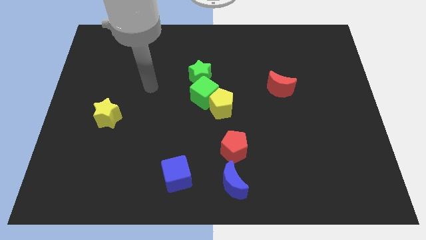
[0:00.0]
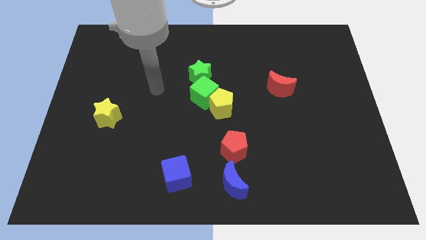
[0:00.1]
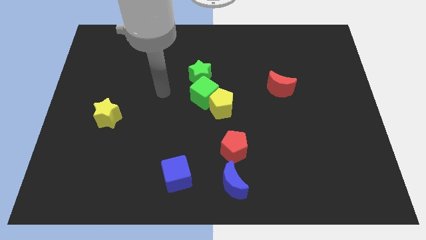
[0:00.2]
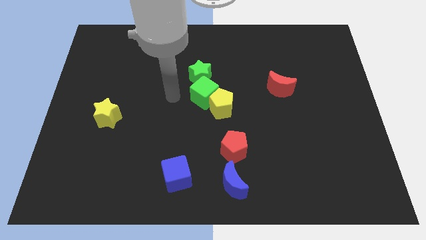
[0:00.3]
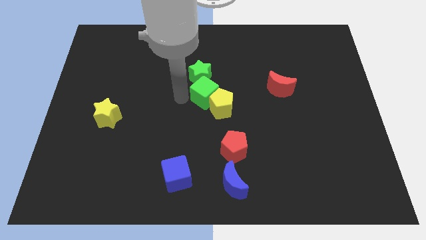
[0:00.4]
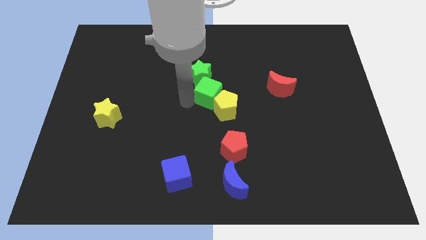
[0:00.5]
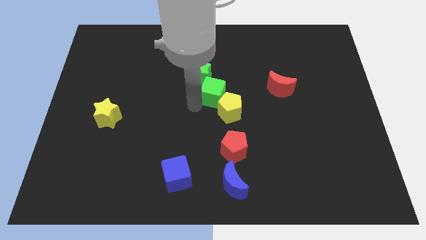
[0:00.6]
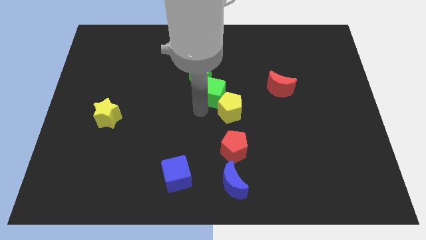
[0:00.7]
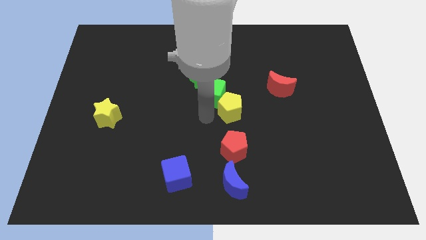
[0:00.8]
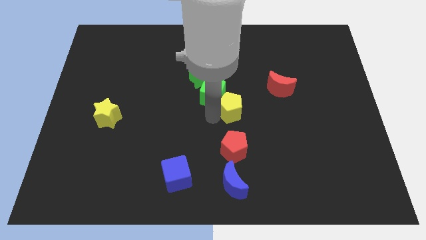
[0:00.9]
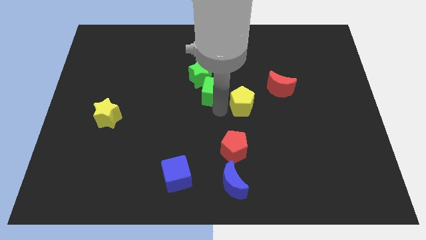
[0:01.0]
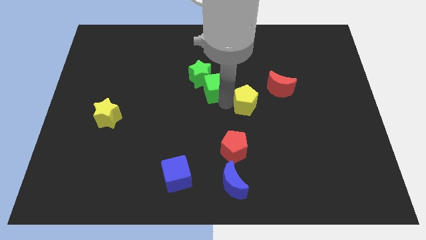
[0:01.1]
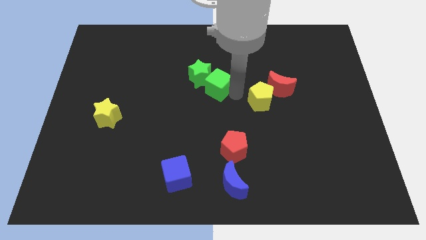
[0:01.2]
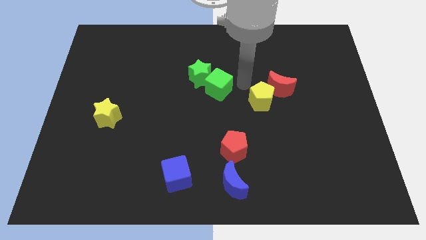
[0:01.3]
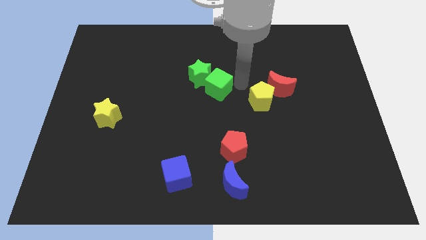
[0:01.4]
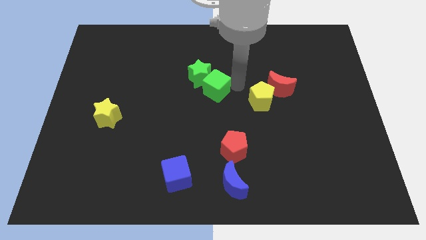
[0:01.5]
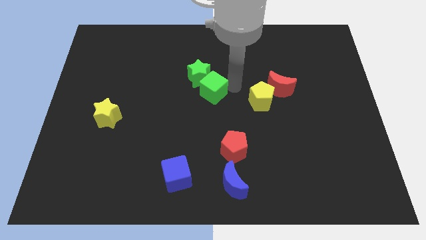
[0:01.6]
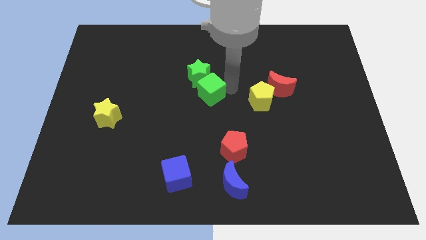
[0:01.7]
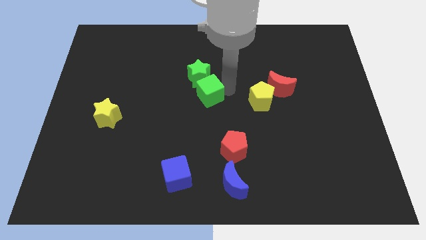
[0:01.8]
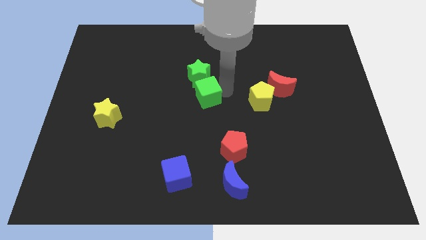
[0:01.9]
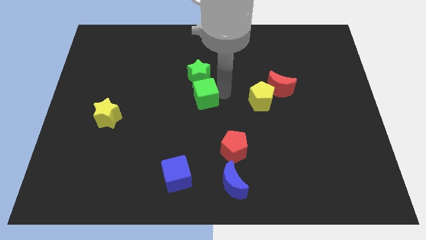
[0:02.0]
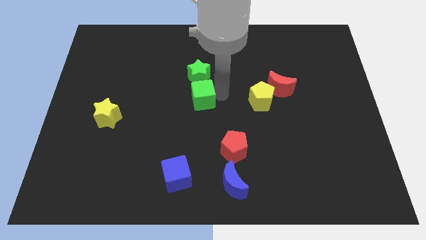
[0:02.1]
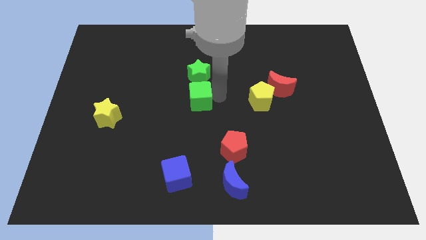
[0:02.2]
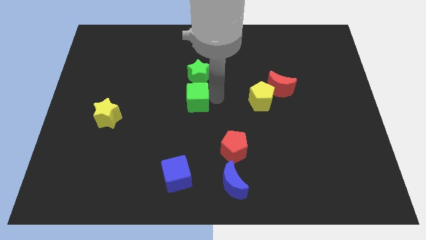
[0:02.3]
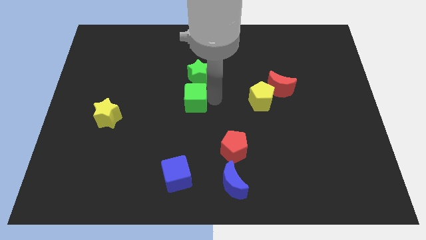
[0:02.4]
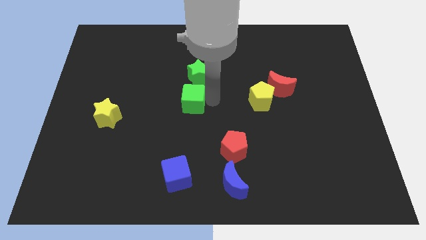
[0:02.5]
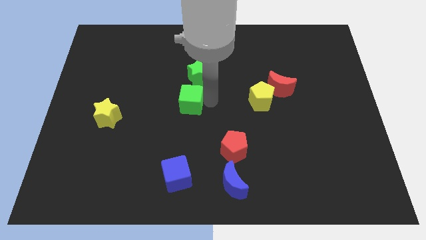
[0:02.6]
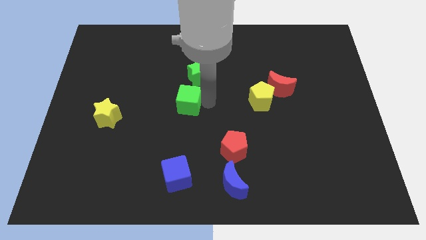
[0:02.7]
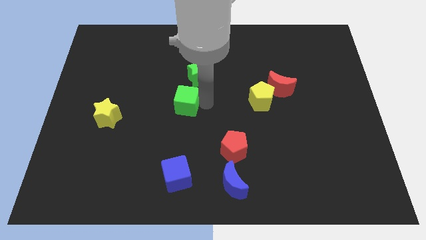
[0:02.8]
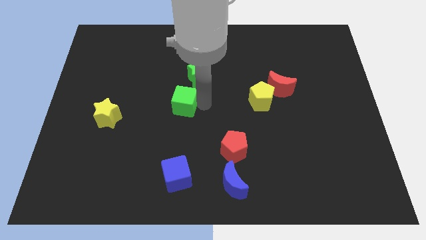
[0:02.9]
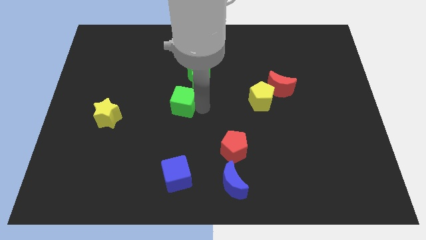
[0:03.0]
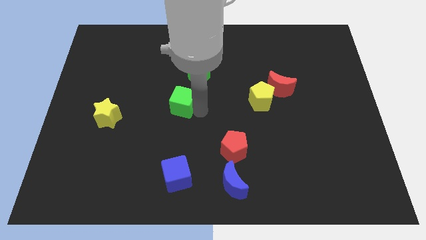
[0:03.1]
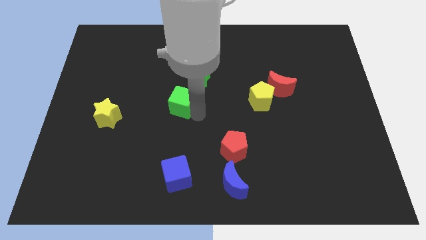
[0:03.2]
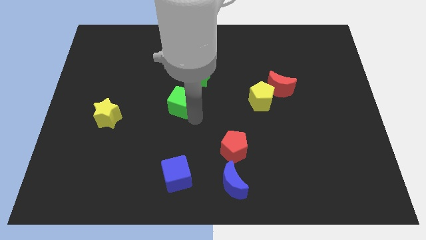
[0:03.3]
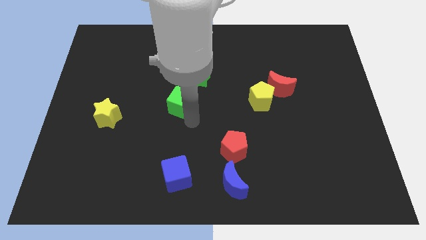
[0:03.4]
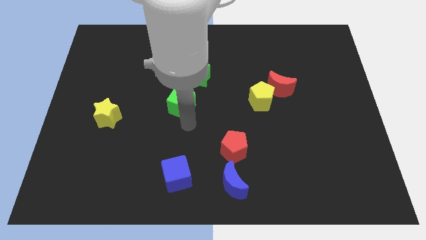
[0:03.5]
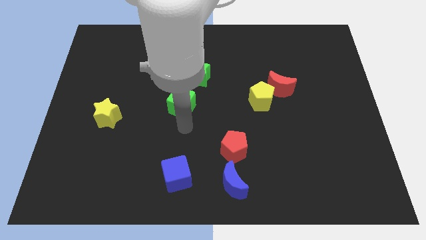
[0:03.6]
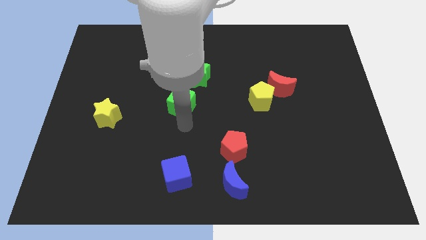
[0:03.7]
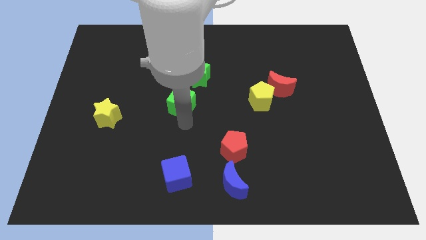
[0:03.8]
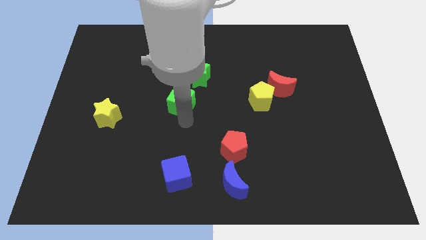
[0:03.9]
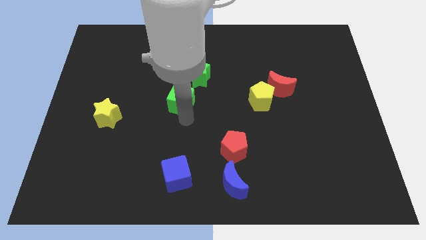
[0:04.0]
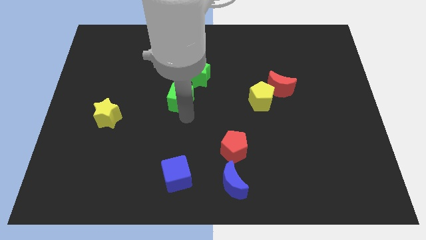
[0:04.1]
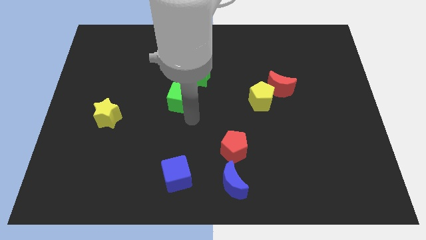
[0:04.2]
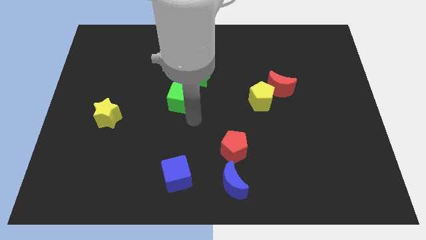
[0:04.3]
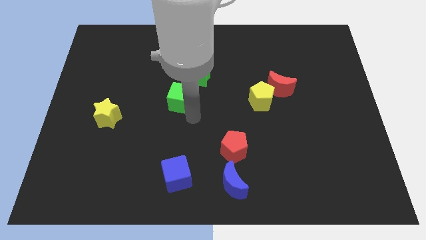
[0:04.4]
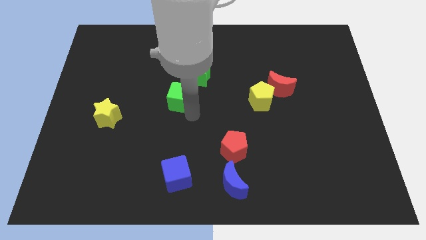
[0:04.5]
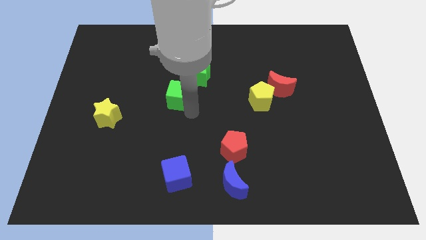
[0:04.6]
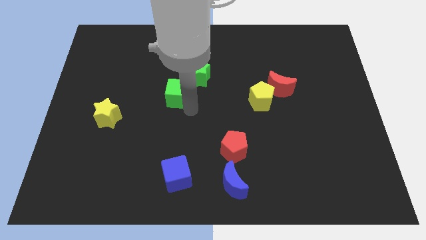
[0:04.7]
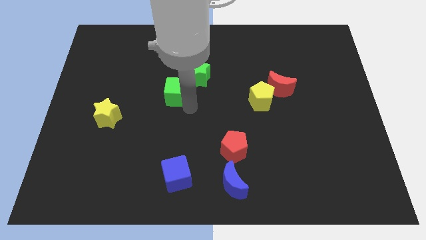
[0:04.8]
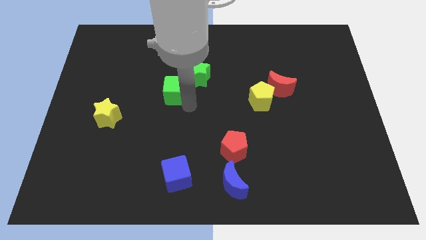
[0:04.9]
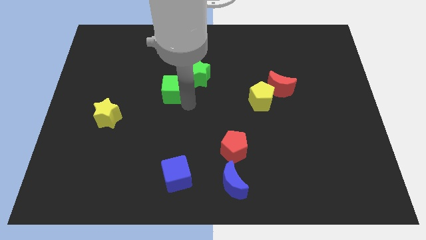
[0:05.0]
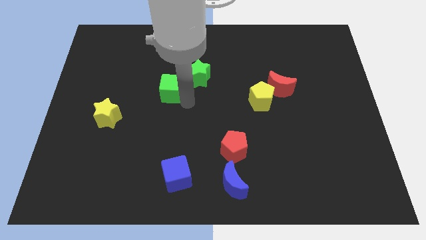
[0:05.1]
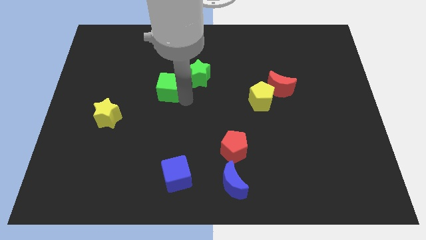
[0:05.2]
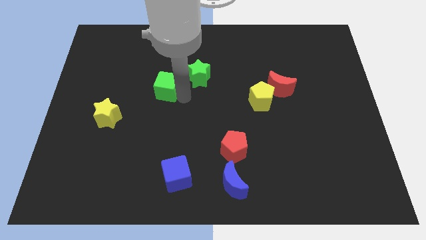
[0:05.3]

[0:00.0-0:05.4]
slightly push the green cube up and to the left diagonally

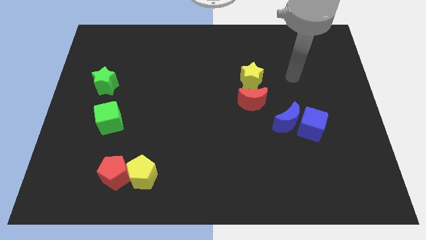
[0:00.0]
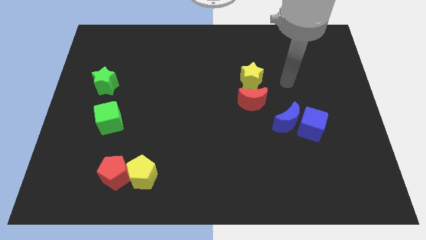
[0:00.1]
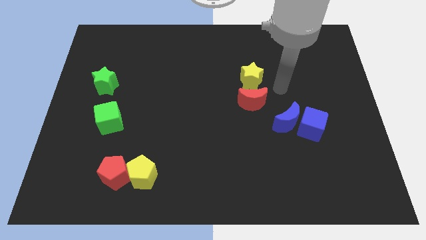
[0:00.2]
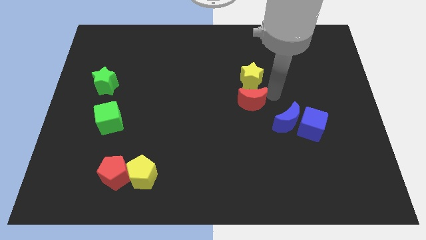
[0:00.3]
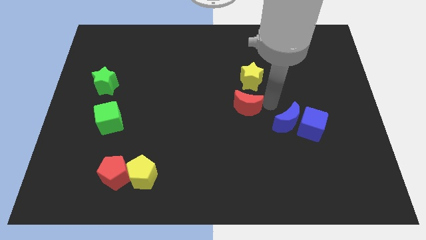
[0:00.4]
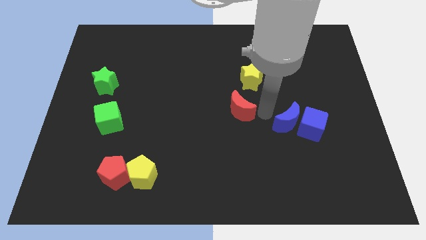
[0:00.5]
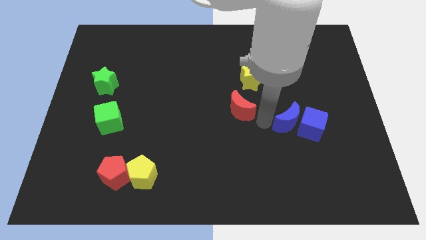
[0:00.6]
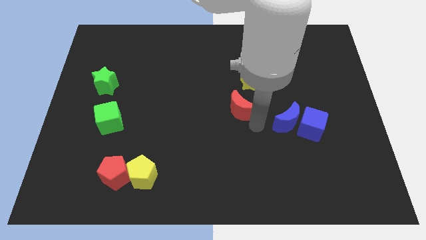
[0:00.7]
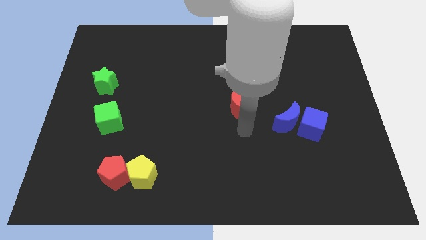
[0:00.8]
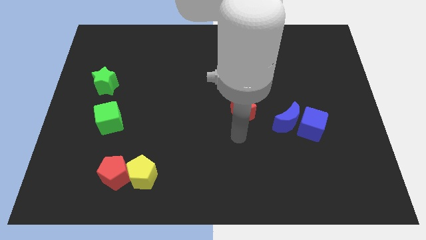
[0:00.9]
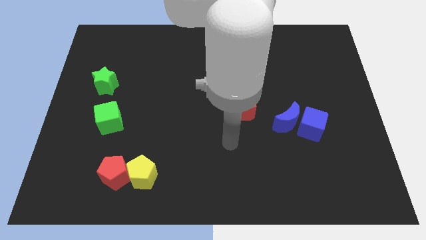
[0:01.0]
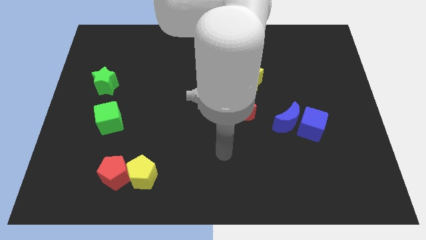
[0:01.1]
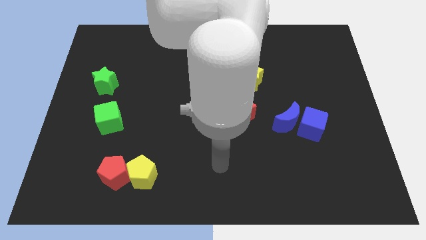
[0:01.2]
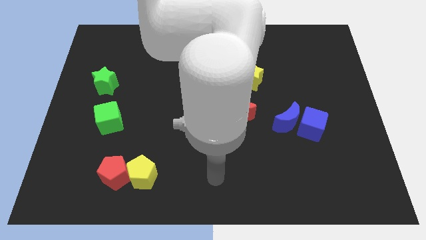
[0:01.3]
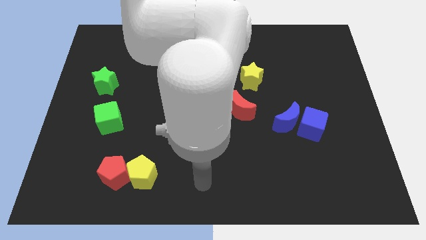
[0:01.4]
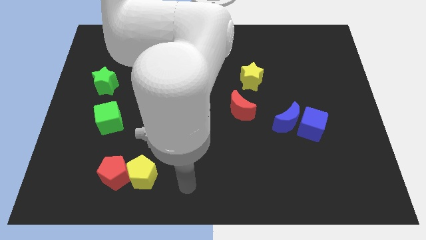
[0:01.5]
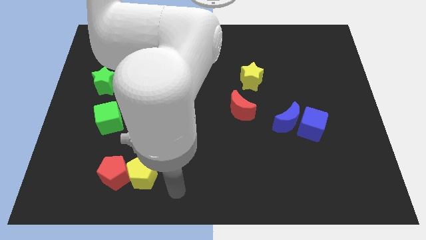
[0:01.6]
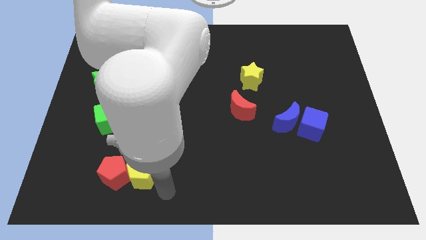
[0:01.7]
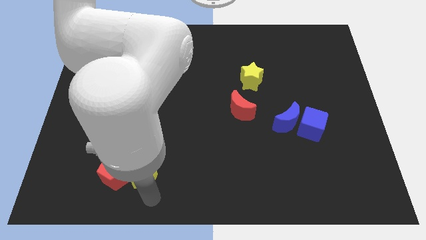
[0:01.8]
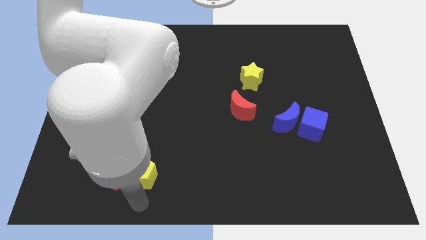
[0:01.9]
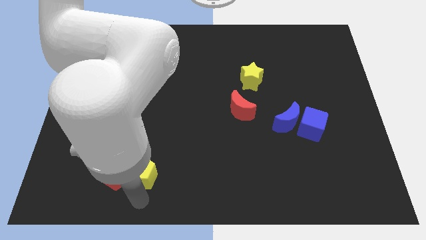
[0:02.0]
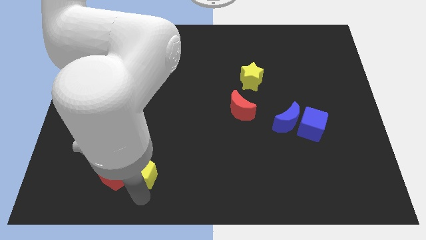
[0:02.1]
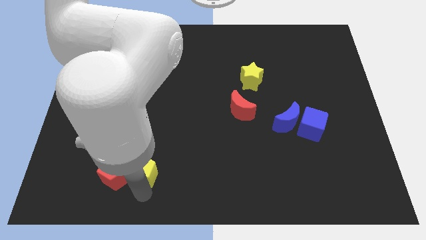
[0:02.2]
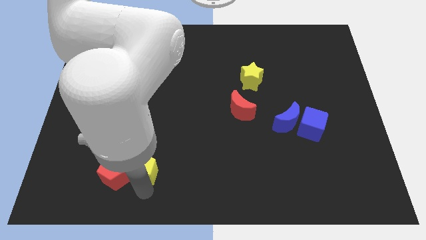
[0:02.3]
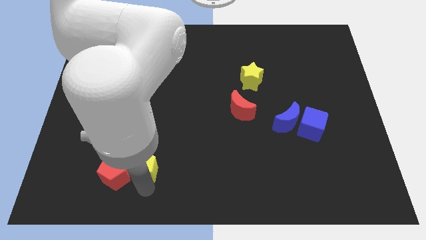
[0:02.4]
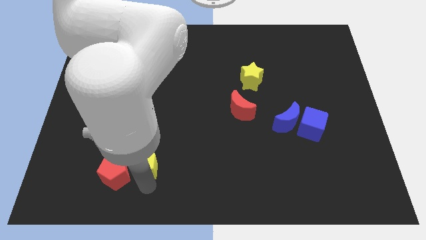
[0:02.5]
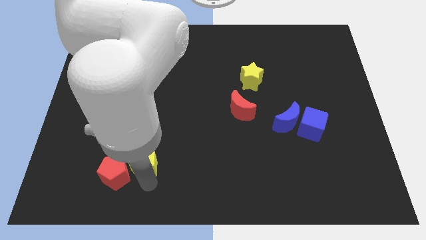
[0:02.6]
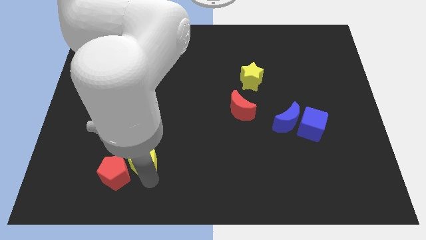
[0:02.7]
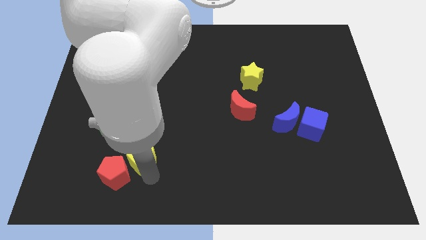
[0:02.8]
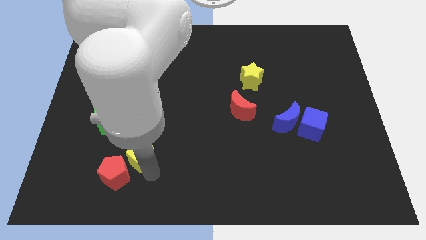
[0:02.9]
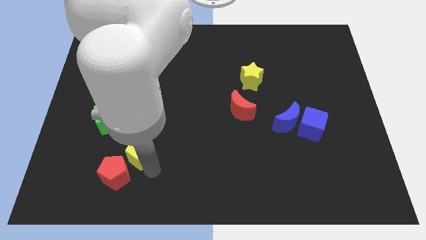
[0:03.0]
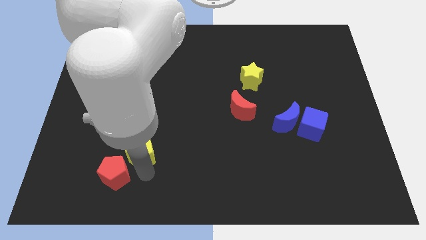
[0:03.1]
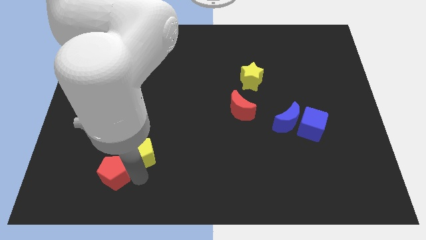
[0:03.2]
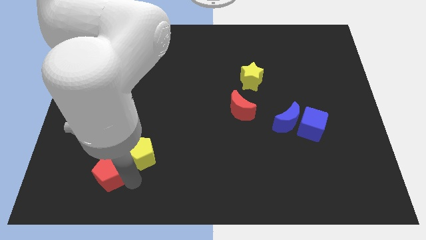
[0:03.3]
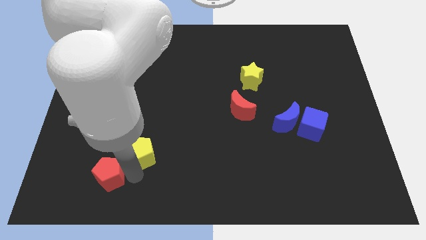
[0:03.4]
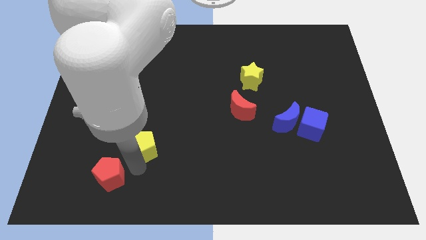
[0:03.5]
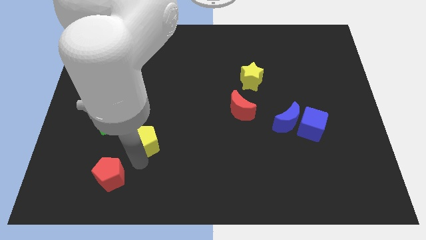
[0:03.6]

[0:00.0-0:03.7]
slightly slide the yellow pentagon up
